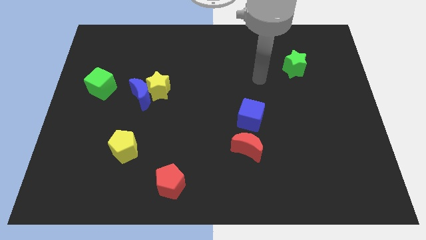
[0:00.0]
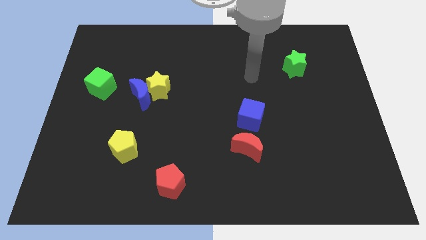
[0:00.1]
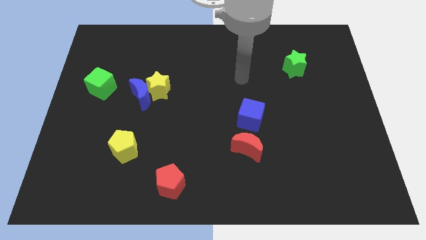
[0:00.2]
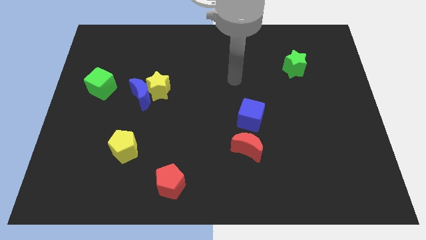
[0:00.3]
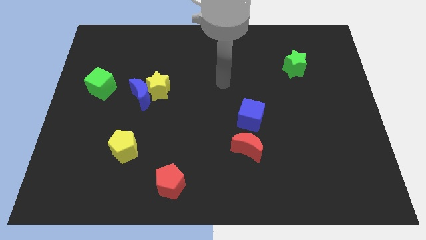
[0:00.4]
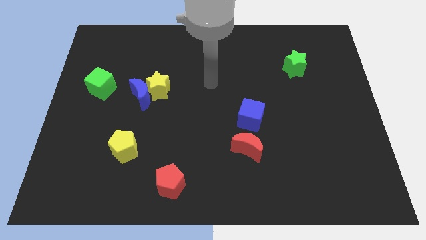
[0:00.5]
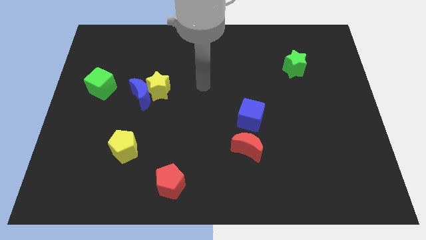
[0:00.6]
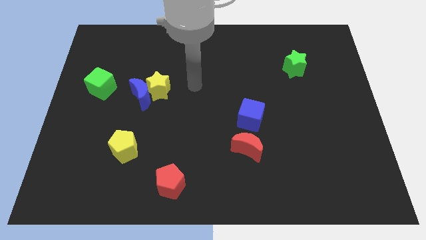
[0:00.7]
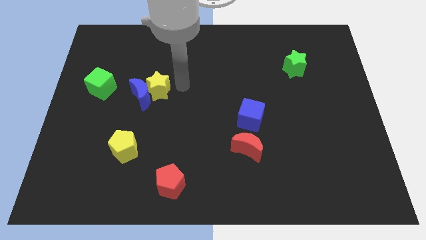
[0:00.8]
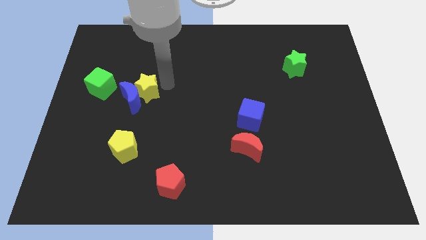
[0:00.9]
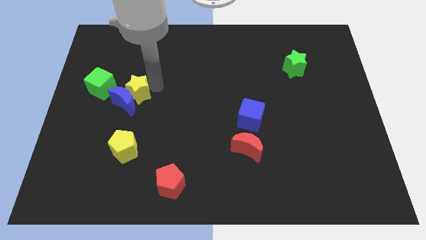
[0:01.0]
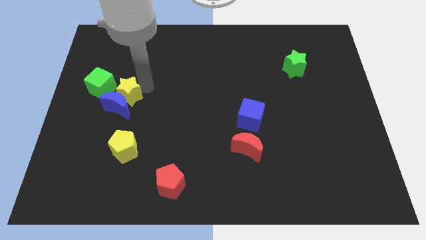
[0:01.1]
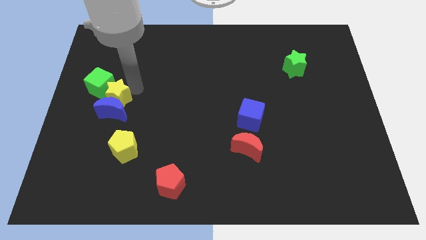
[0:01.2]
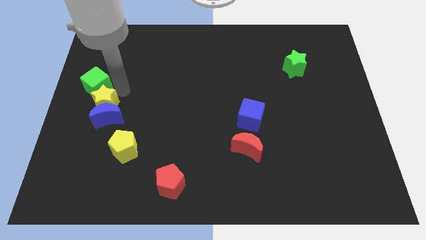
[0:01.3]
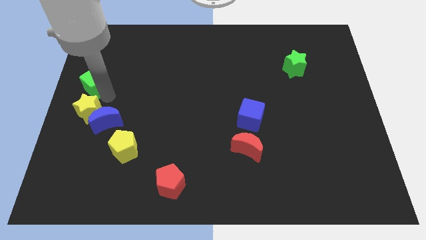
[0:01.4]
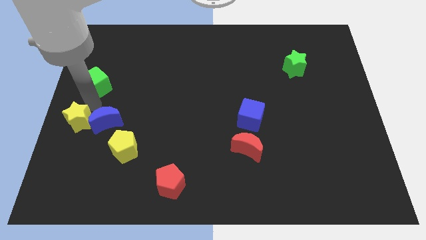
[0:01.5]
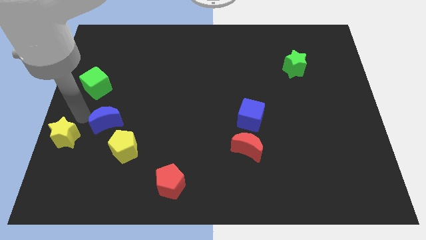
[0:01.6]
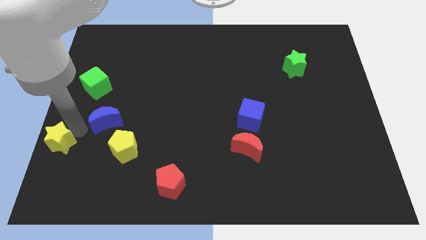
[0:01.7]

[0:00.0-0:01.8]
separate the blue moon from the yellow star

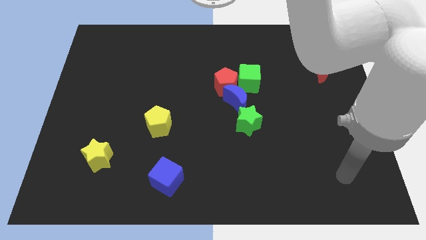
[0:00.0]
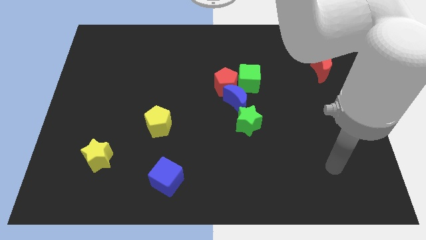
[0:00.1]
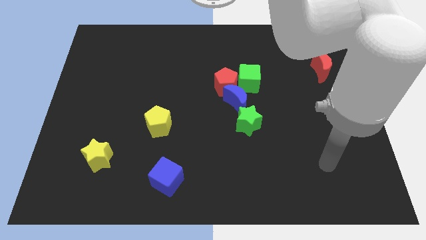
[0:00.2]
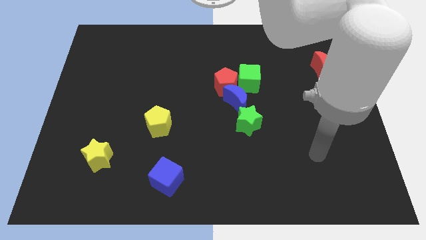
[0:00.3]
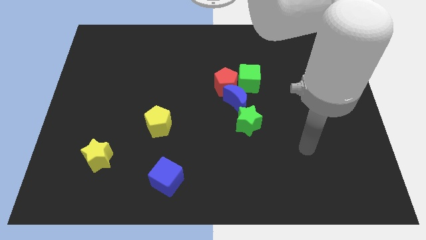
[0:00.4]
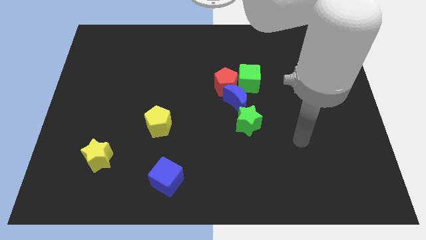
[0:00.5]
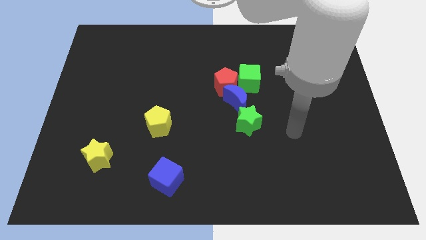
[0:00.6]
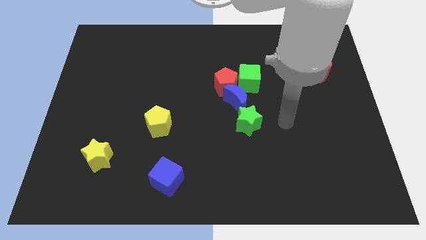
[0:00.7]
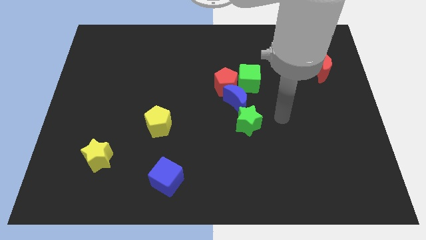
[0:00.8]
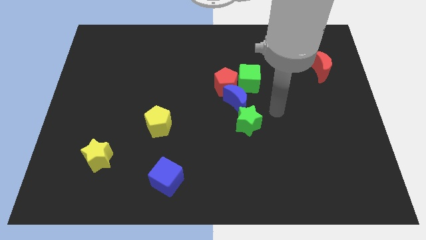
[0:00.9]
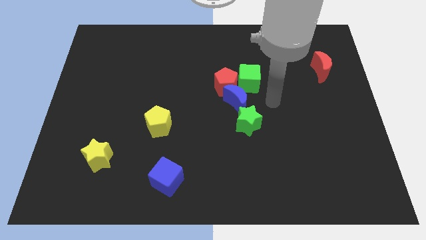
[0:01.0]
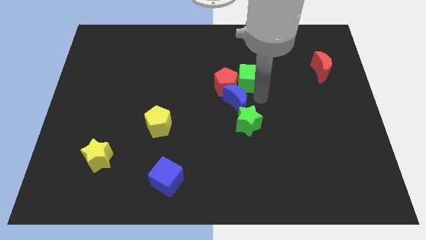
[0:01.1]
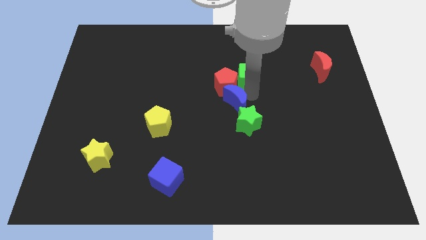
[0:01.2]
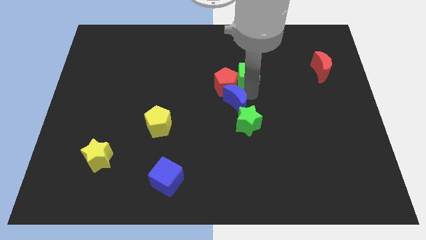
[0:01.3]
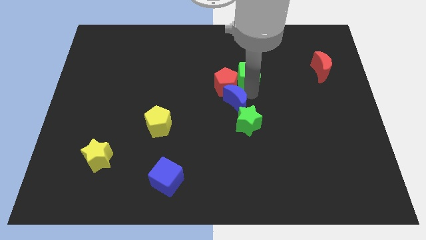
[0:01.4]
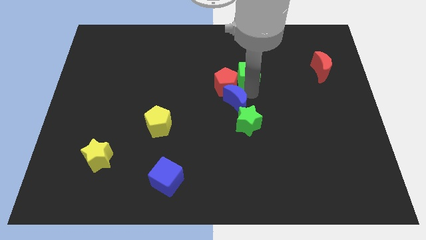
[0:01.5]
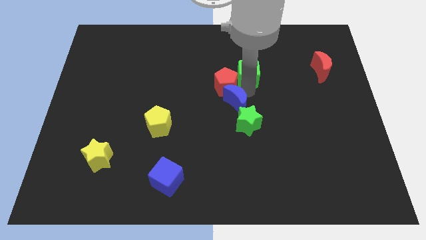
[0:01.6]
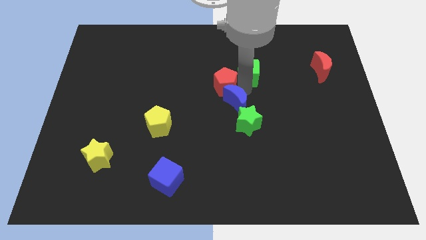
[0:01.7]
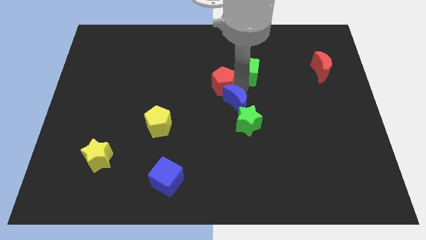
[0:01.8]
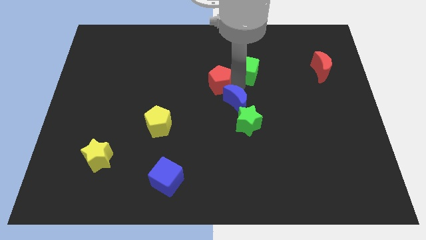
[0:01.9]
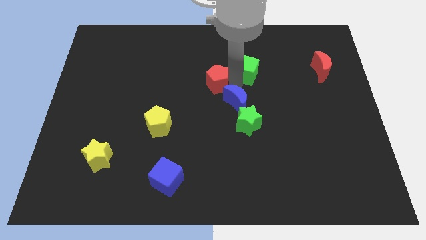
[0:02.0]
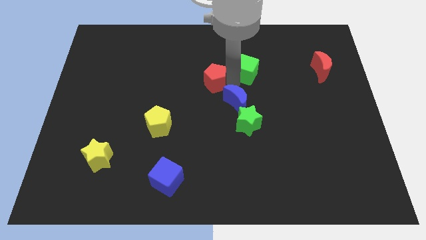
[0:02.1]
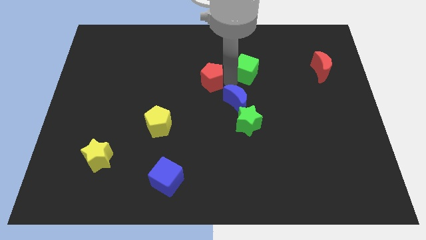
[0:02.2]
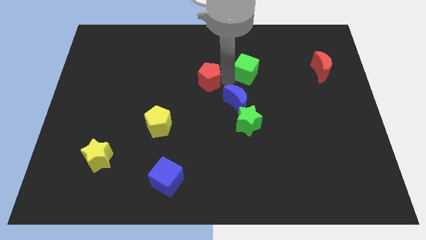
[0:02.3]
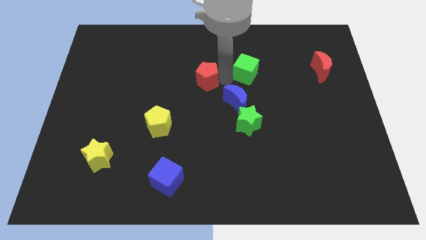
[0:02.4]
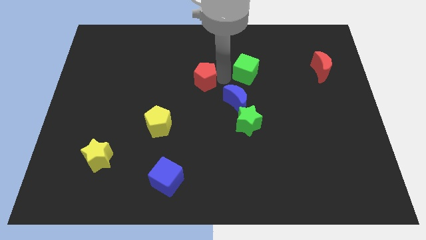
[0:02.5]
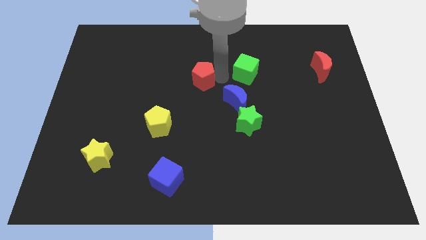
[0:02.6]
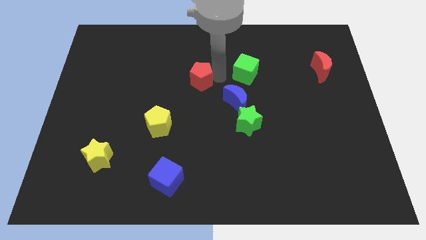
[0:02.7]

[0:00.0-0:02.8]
move the red pentagon away from the blue moon and green cube

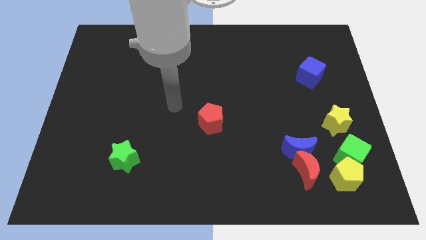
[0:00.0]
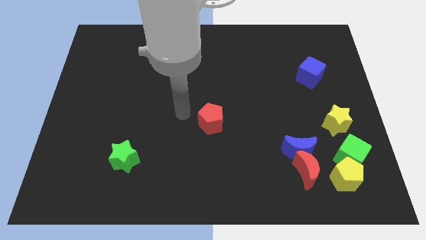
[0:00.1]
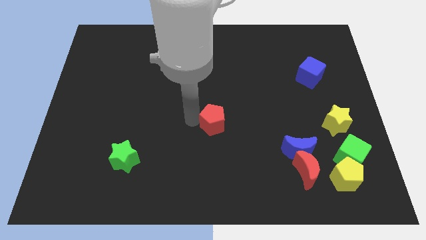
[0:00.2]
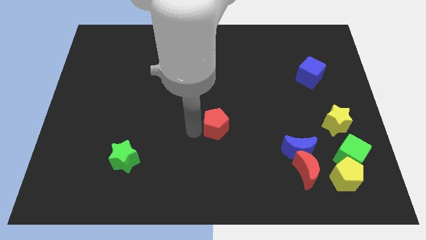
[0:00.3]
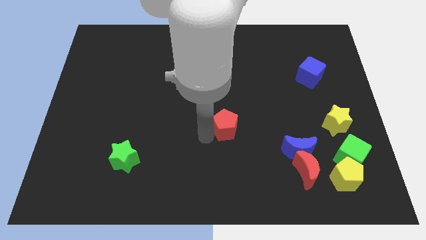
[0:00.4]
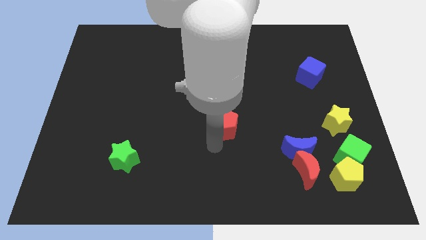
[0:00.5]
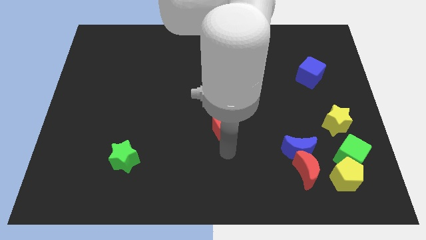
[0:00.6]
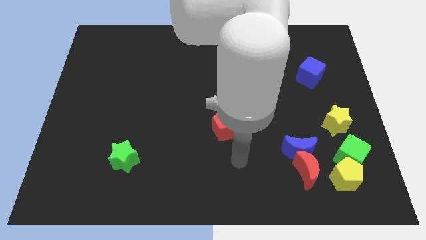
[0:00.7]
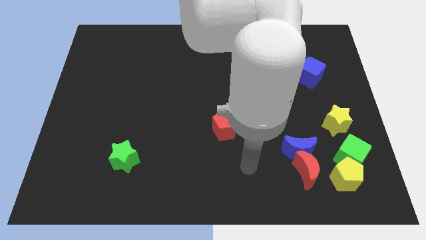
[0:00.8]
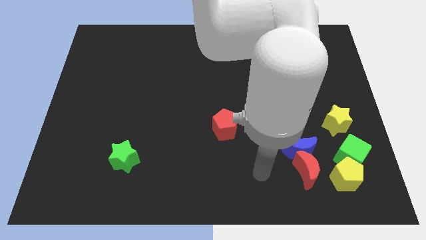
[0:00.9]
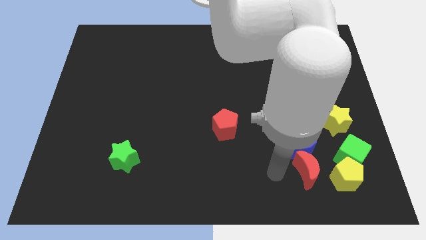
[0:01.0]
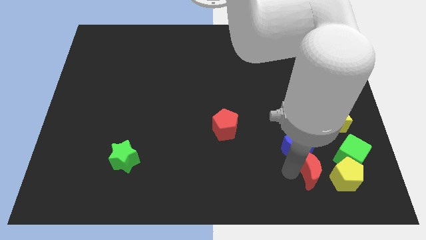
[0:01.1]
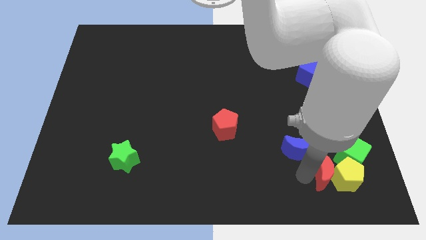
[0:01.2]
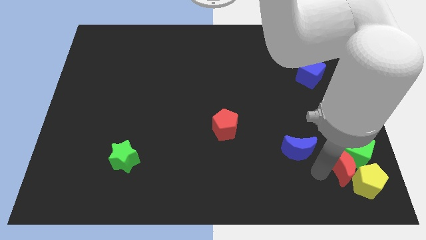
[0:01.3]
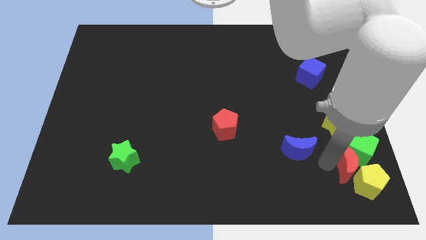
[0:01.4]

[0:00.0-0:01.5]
pull the blue moon apart from the red moon

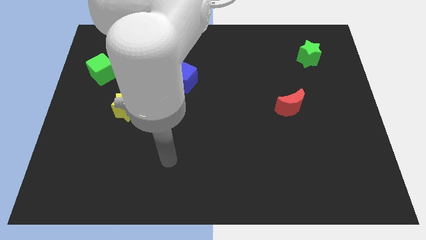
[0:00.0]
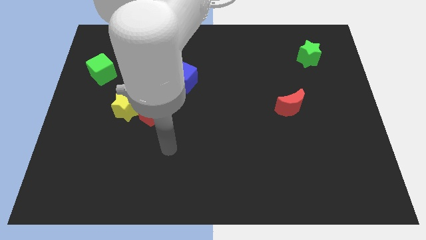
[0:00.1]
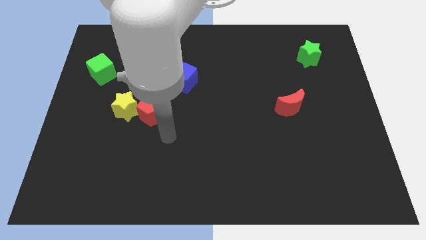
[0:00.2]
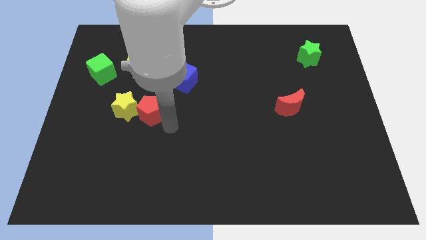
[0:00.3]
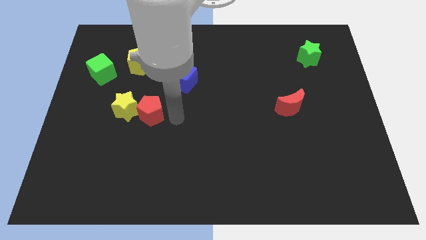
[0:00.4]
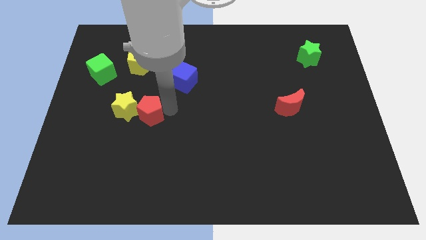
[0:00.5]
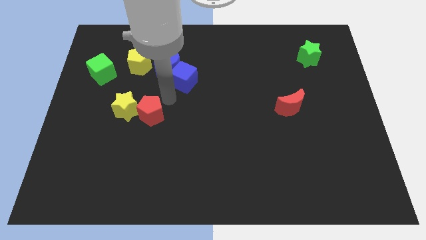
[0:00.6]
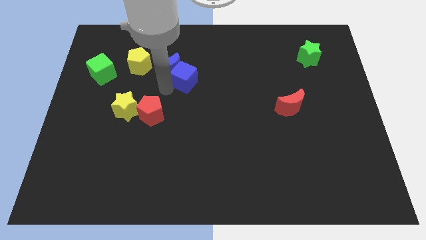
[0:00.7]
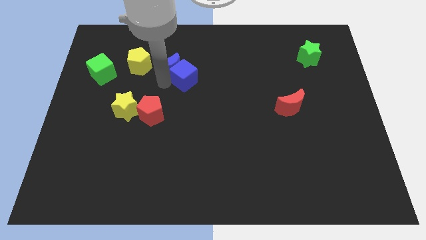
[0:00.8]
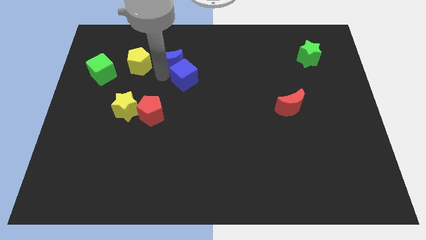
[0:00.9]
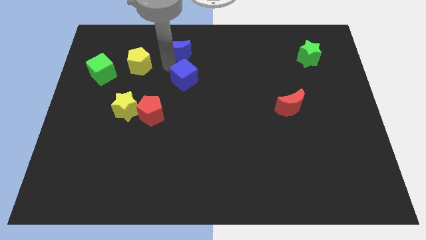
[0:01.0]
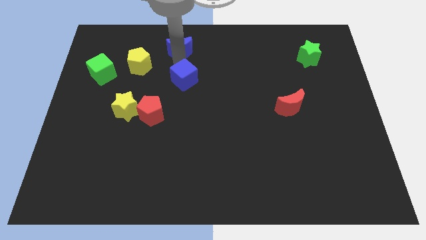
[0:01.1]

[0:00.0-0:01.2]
separate the blue cube from the blue moon

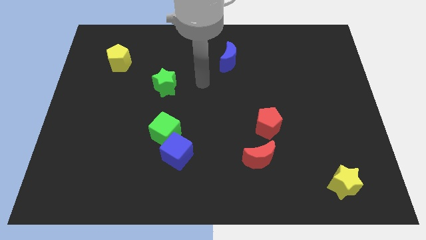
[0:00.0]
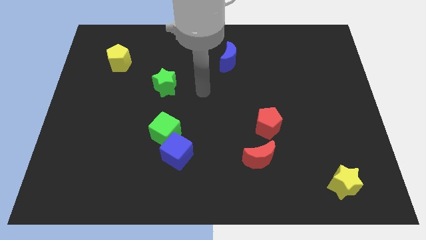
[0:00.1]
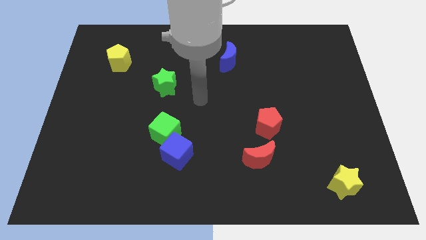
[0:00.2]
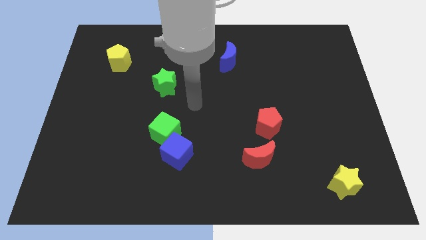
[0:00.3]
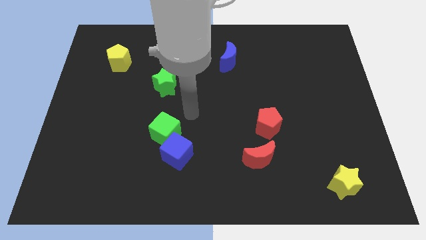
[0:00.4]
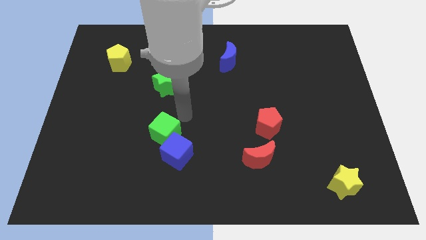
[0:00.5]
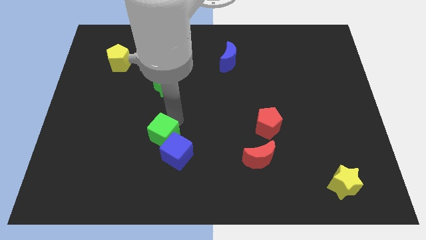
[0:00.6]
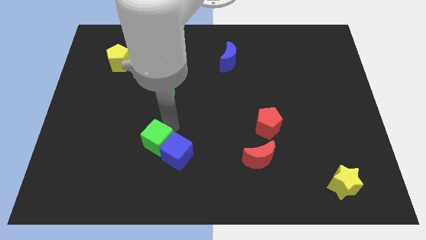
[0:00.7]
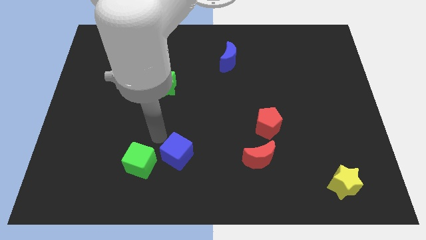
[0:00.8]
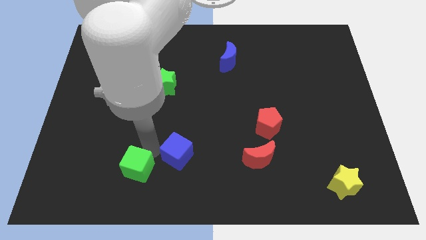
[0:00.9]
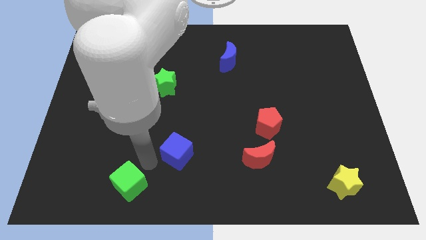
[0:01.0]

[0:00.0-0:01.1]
pull the blue cube apart from the green cube

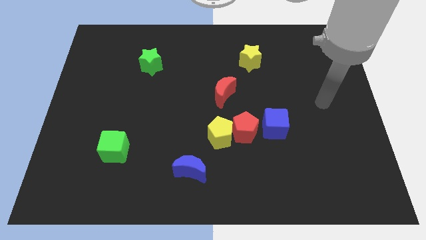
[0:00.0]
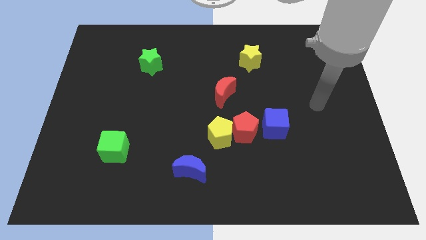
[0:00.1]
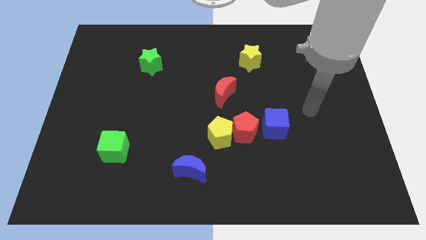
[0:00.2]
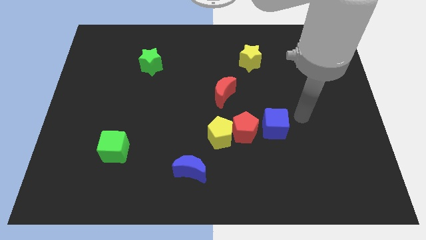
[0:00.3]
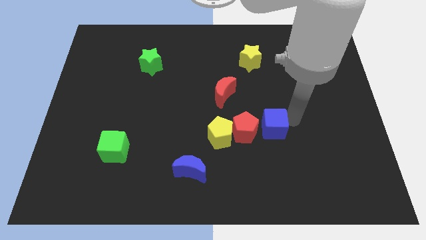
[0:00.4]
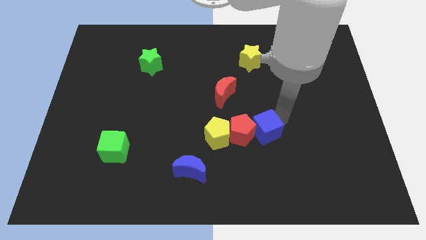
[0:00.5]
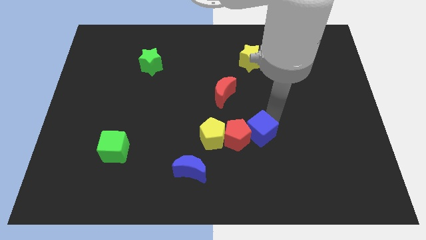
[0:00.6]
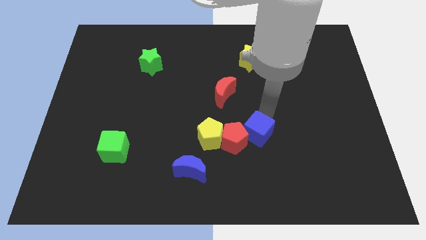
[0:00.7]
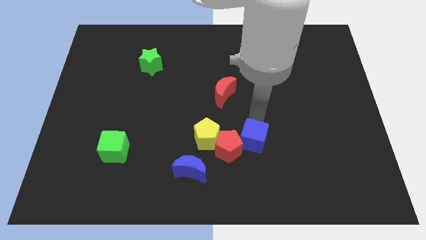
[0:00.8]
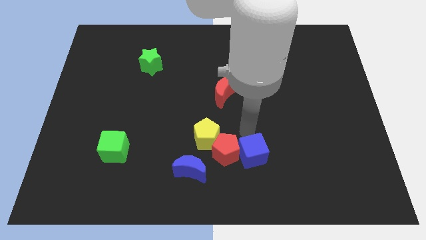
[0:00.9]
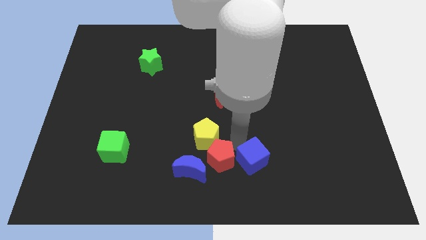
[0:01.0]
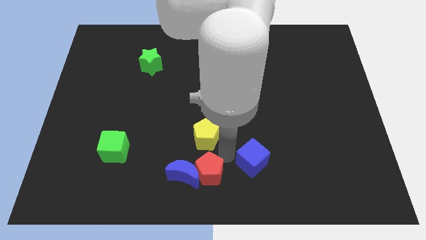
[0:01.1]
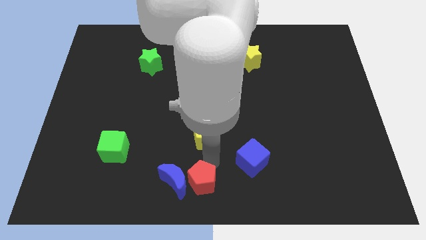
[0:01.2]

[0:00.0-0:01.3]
separate the yellow pentagon from the red pentagon
